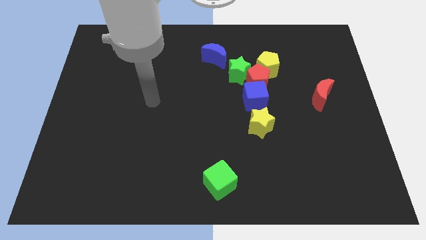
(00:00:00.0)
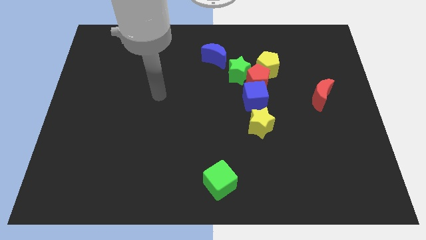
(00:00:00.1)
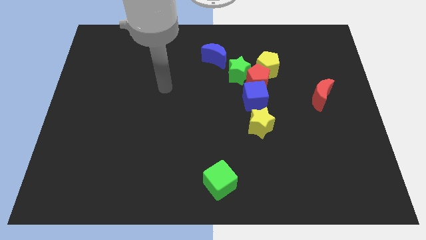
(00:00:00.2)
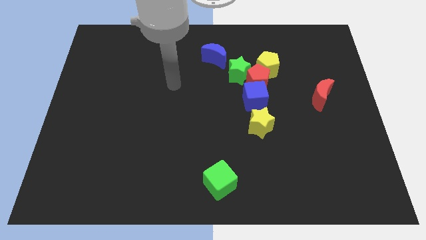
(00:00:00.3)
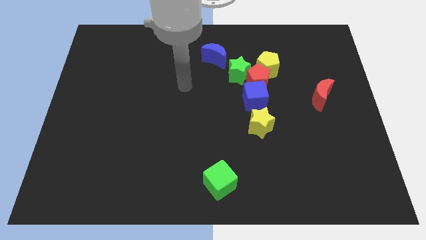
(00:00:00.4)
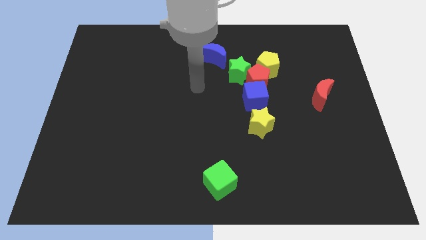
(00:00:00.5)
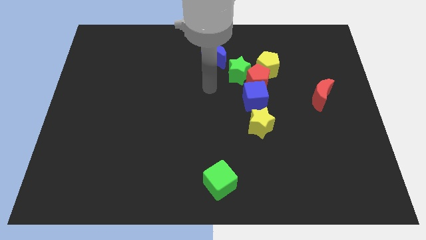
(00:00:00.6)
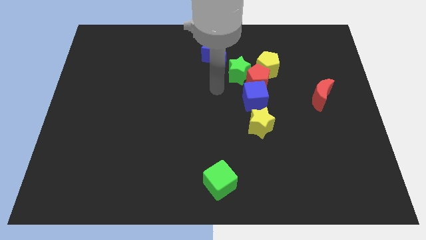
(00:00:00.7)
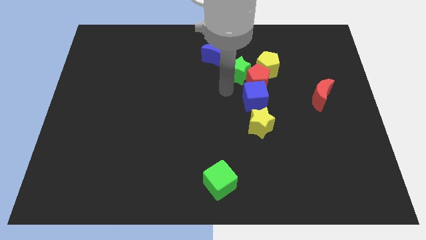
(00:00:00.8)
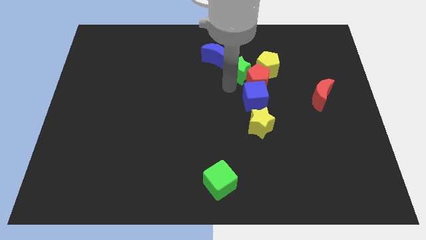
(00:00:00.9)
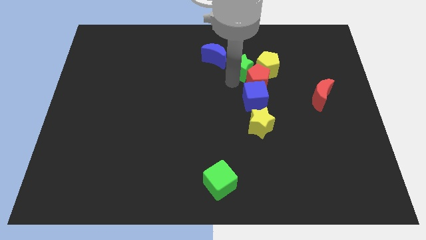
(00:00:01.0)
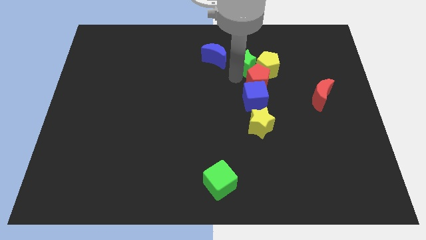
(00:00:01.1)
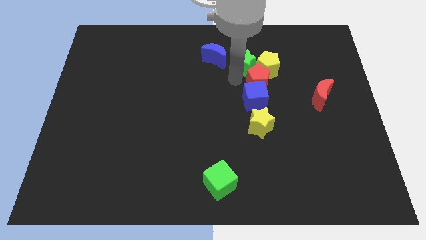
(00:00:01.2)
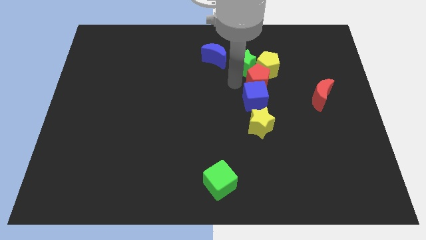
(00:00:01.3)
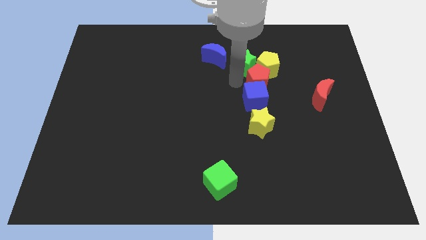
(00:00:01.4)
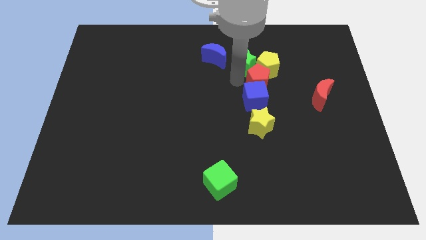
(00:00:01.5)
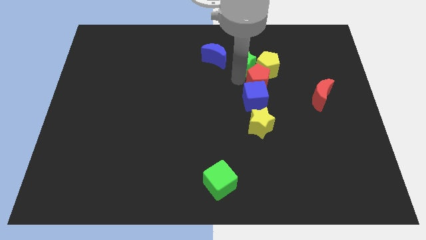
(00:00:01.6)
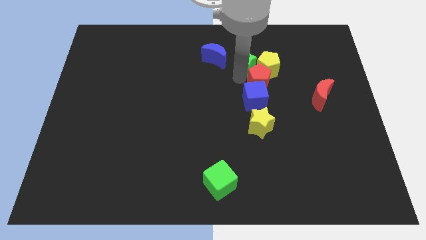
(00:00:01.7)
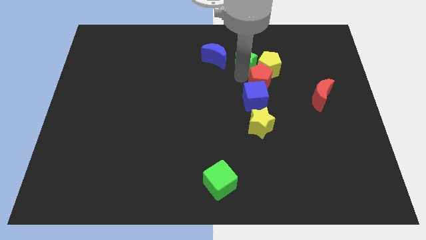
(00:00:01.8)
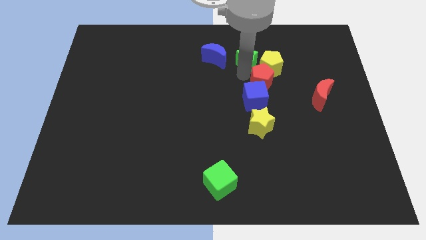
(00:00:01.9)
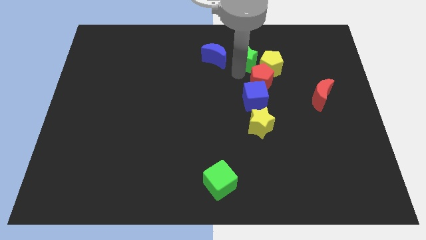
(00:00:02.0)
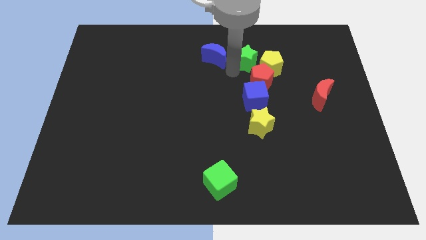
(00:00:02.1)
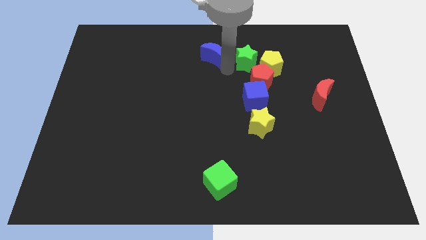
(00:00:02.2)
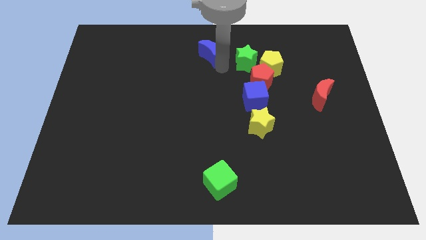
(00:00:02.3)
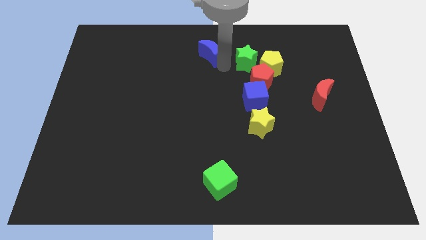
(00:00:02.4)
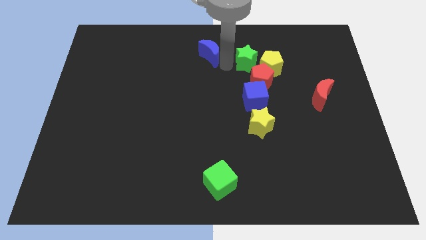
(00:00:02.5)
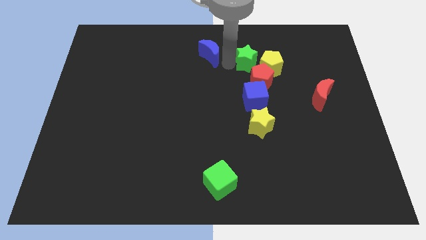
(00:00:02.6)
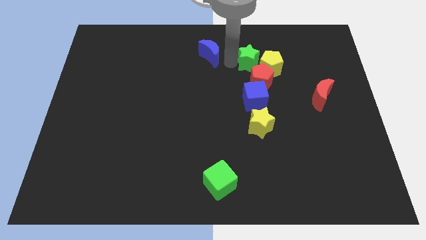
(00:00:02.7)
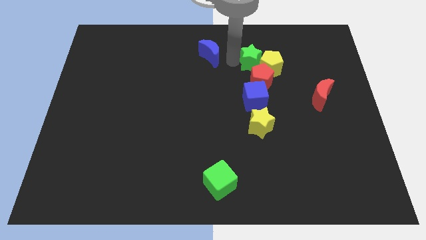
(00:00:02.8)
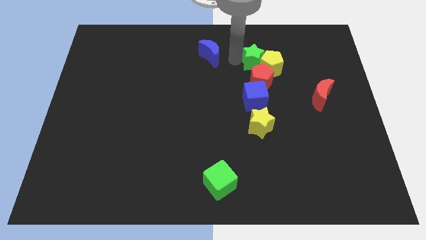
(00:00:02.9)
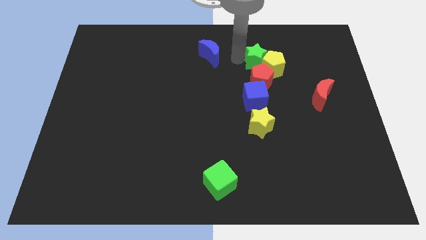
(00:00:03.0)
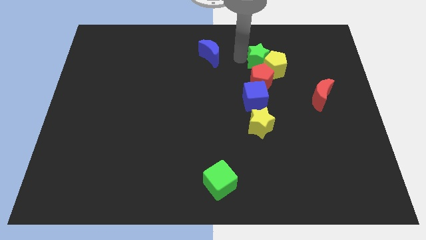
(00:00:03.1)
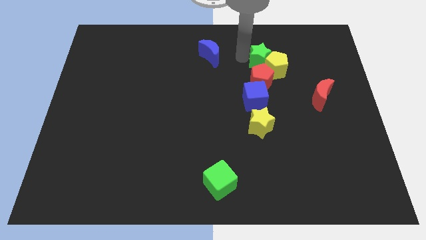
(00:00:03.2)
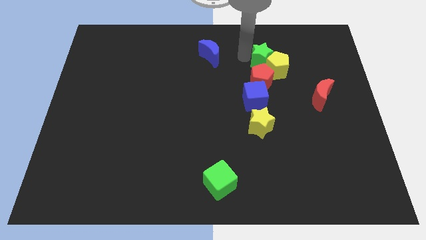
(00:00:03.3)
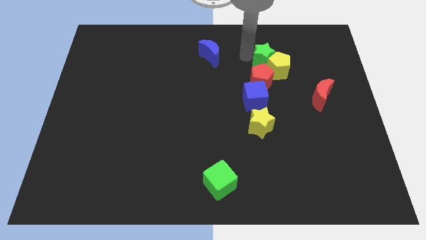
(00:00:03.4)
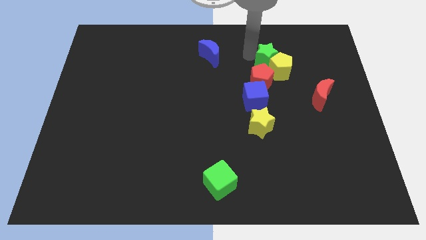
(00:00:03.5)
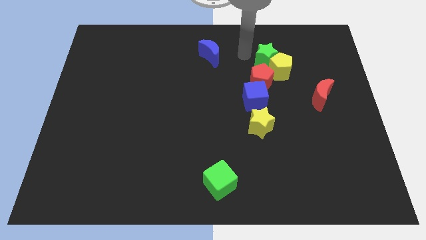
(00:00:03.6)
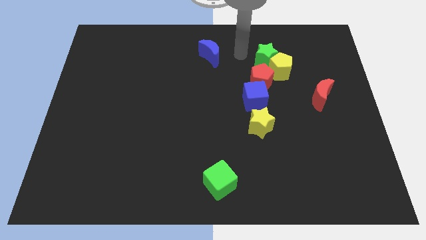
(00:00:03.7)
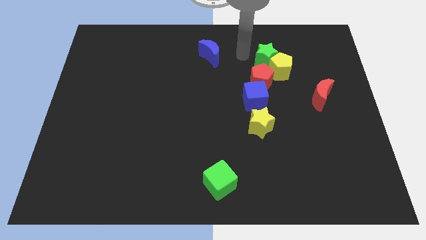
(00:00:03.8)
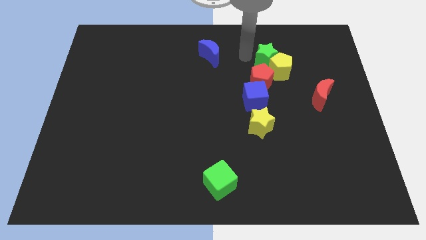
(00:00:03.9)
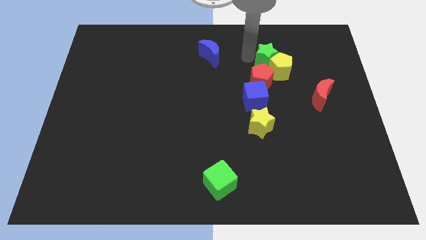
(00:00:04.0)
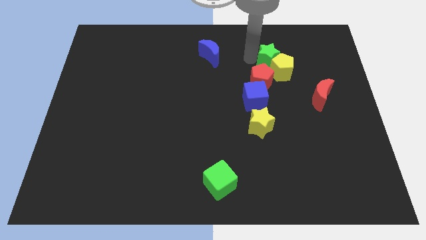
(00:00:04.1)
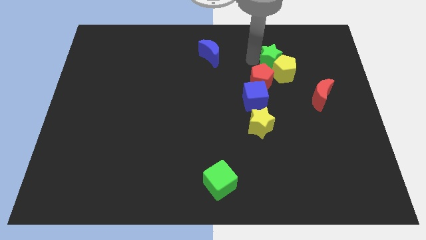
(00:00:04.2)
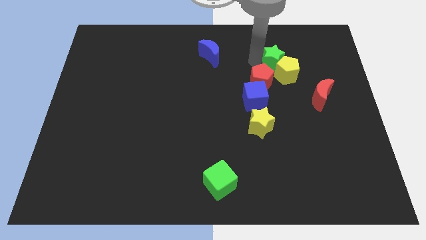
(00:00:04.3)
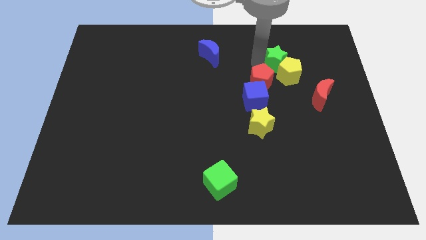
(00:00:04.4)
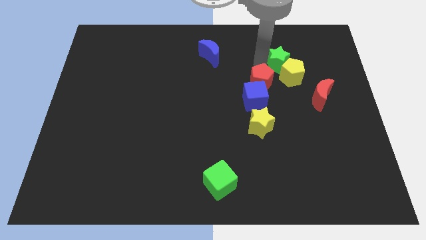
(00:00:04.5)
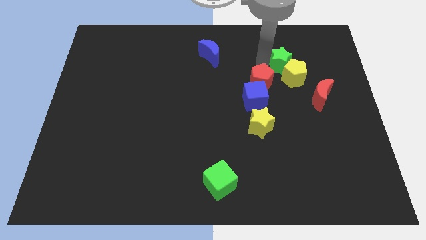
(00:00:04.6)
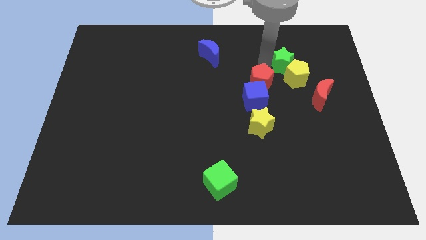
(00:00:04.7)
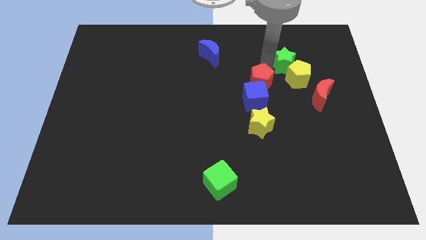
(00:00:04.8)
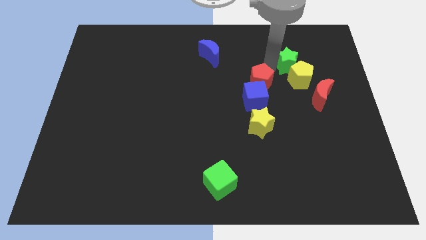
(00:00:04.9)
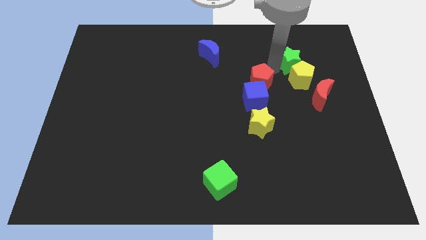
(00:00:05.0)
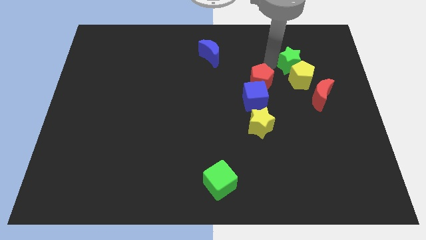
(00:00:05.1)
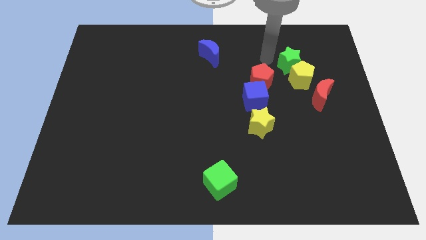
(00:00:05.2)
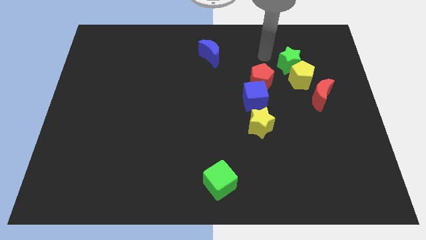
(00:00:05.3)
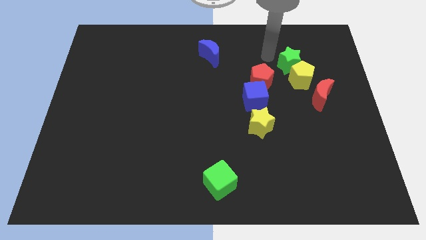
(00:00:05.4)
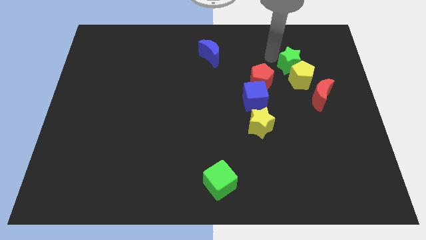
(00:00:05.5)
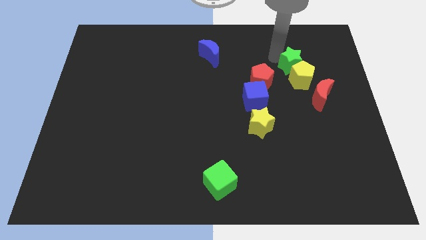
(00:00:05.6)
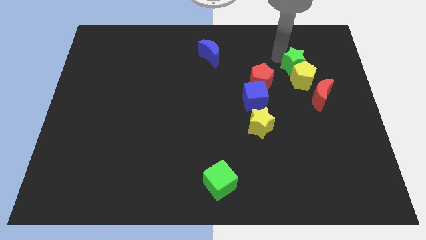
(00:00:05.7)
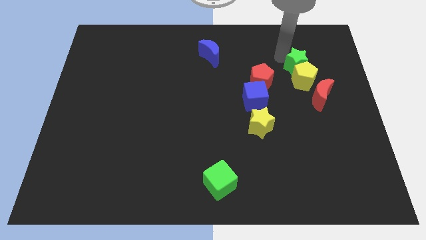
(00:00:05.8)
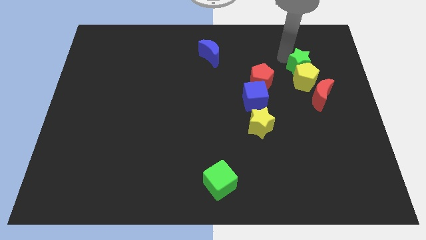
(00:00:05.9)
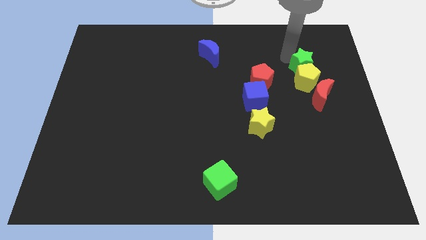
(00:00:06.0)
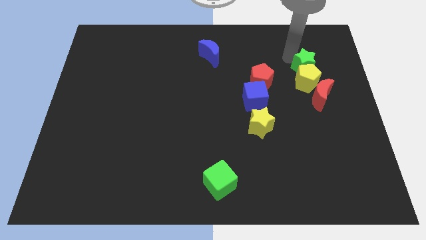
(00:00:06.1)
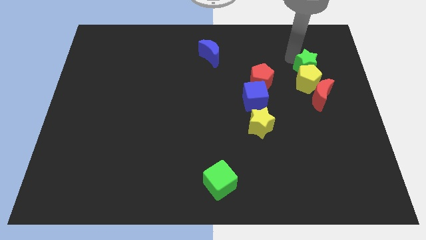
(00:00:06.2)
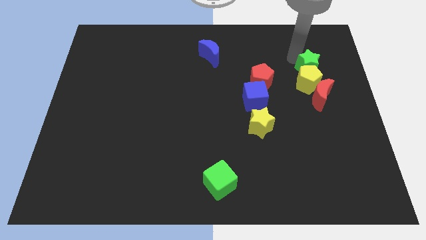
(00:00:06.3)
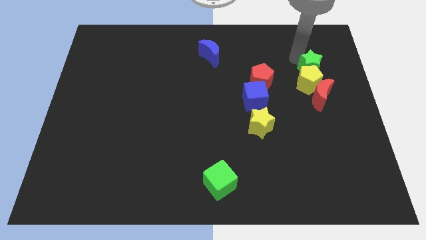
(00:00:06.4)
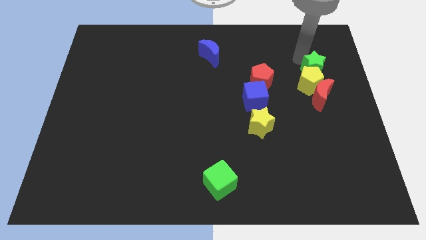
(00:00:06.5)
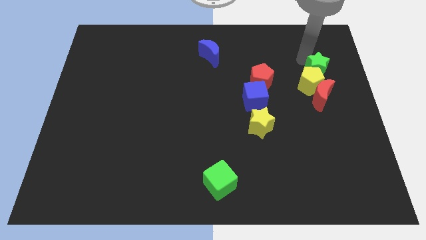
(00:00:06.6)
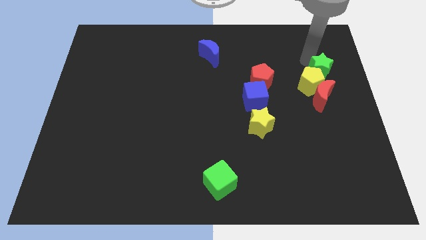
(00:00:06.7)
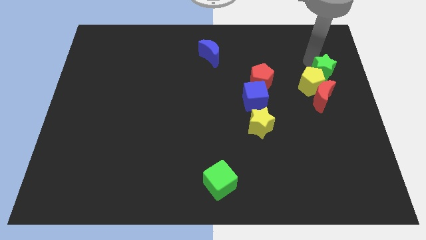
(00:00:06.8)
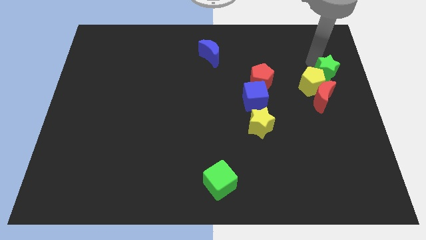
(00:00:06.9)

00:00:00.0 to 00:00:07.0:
push the green star to the center right
